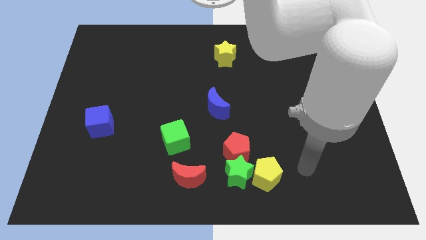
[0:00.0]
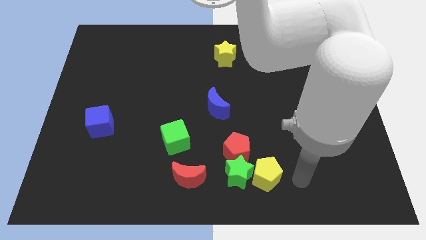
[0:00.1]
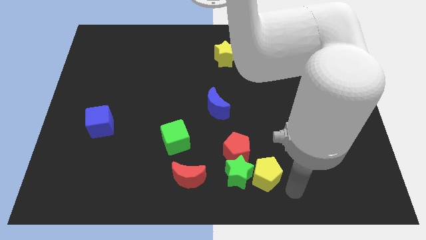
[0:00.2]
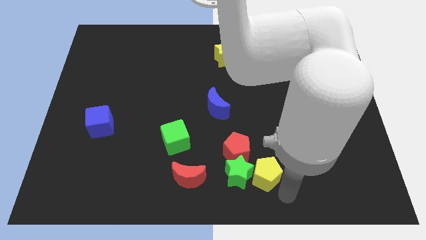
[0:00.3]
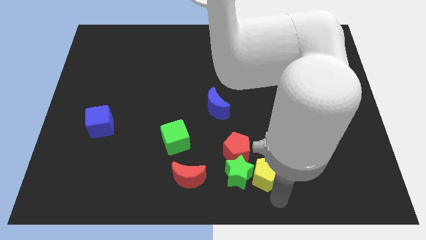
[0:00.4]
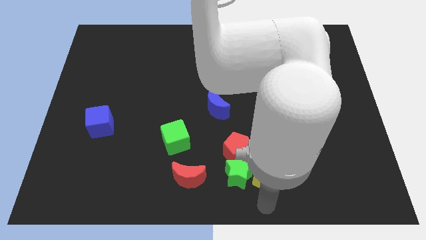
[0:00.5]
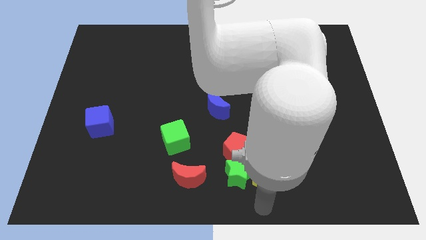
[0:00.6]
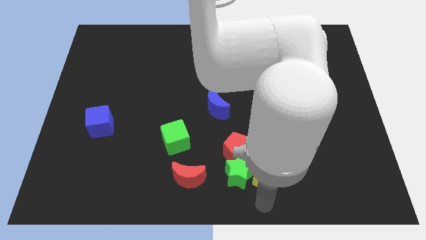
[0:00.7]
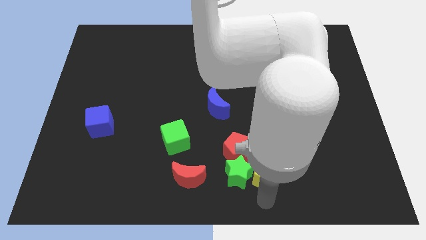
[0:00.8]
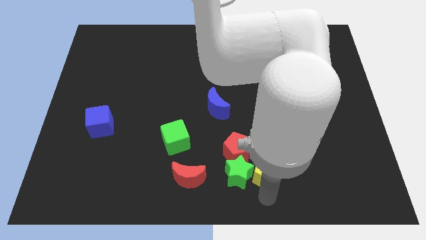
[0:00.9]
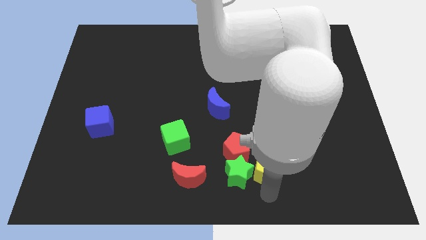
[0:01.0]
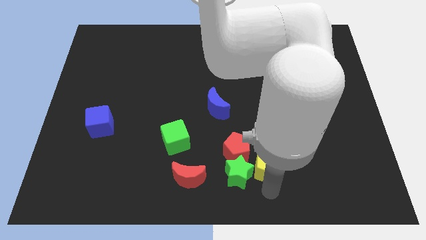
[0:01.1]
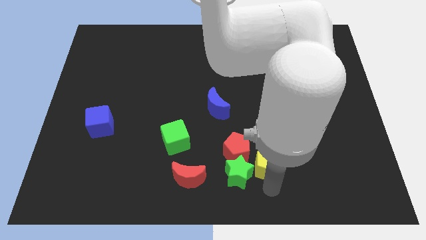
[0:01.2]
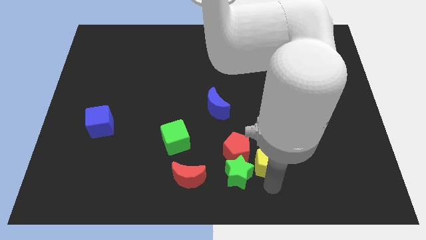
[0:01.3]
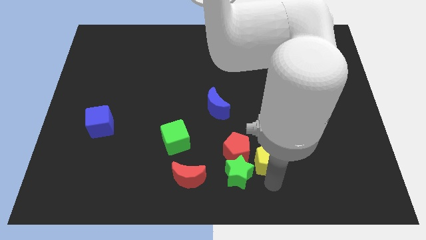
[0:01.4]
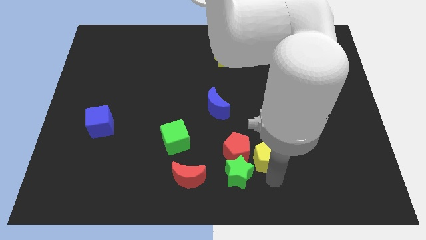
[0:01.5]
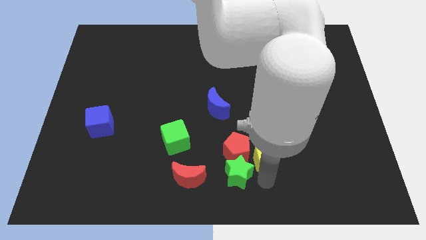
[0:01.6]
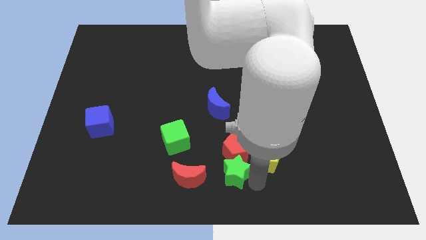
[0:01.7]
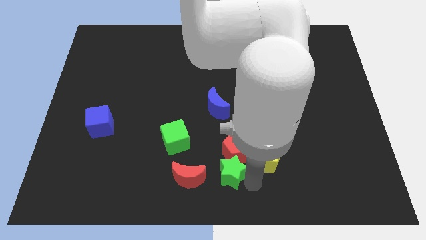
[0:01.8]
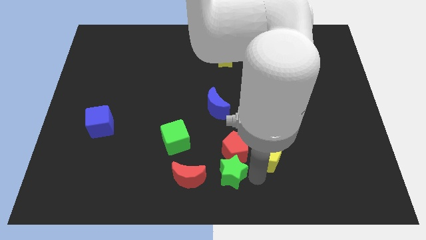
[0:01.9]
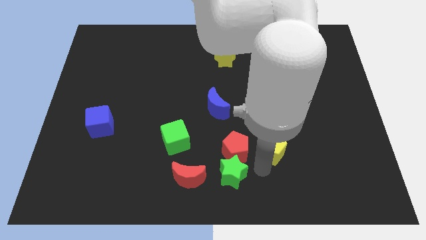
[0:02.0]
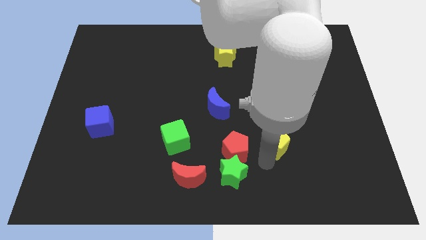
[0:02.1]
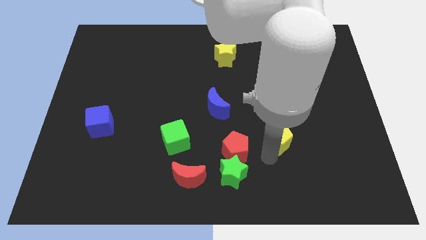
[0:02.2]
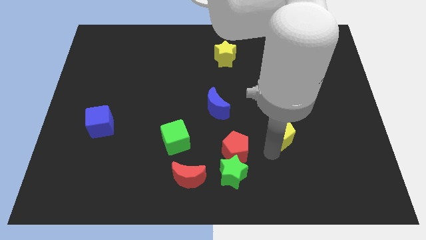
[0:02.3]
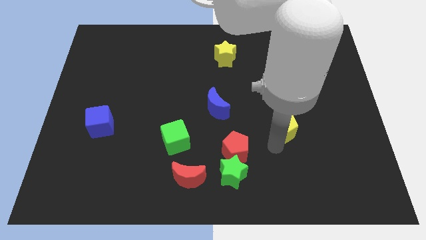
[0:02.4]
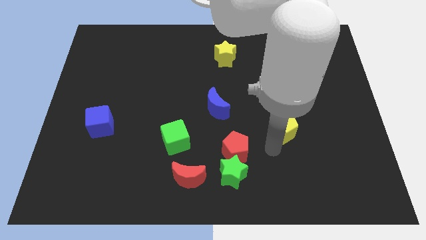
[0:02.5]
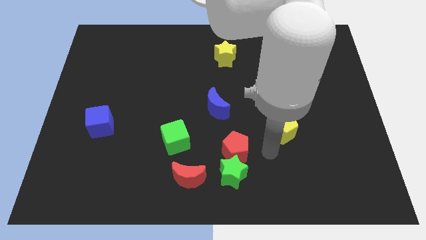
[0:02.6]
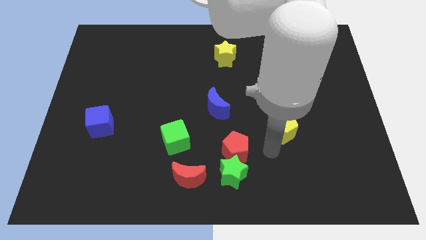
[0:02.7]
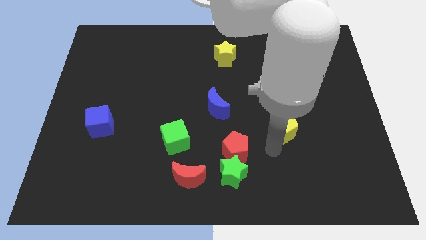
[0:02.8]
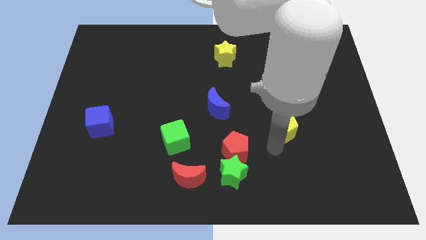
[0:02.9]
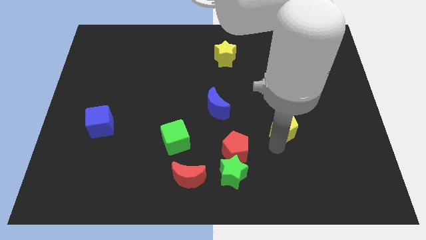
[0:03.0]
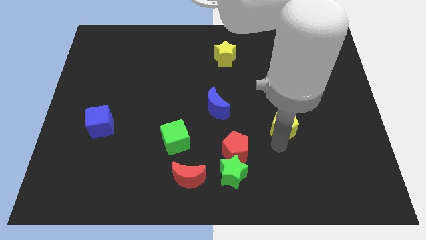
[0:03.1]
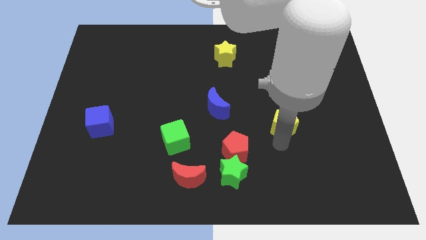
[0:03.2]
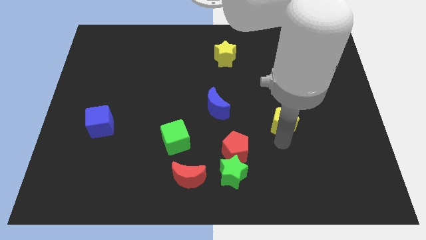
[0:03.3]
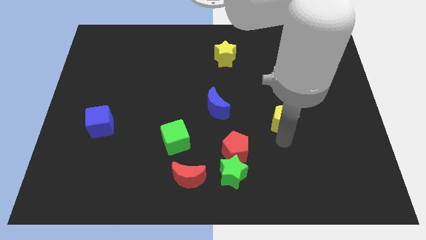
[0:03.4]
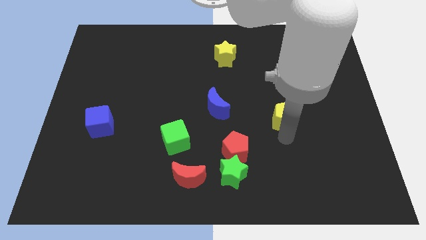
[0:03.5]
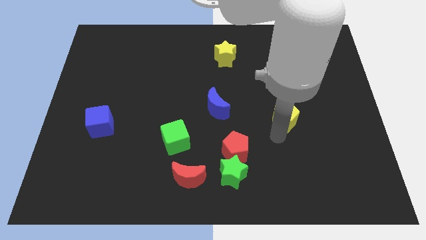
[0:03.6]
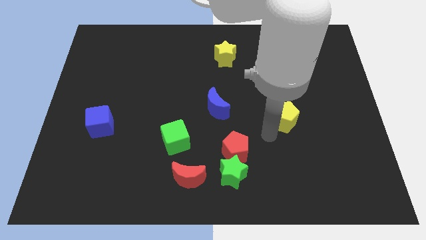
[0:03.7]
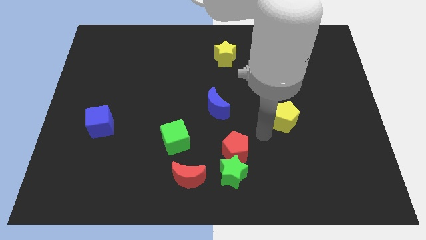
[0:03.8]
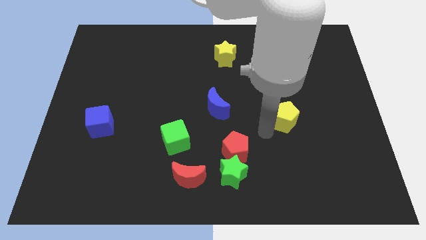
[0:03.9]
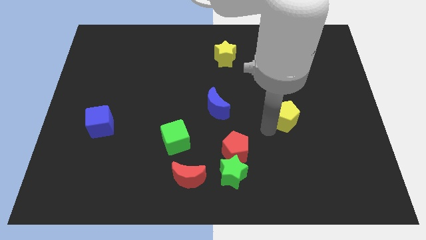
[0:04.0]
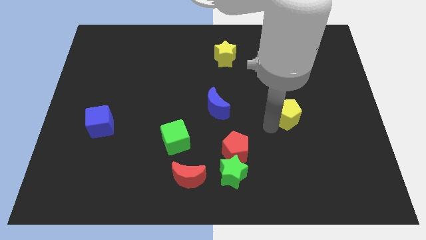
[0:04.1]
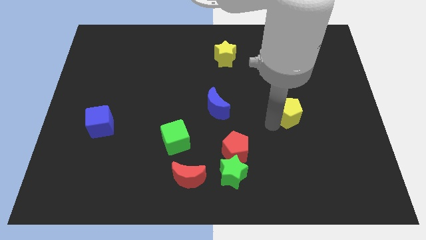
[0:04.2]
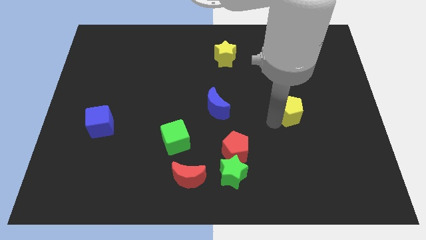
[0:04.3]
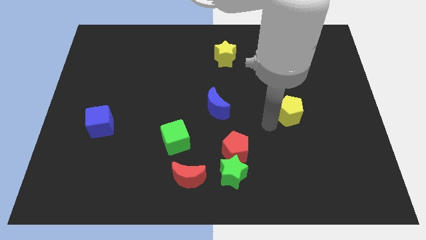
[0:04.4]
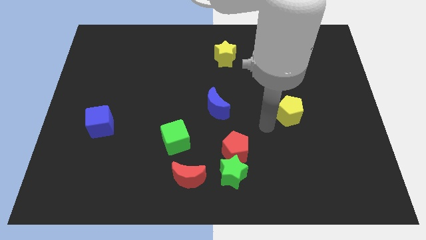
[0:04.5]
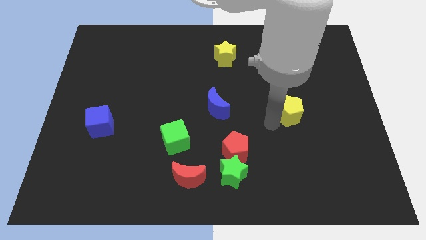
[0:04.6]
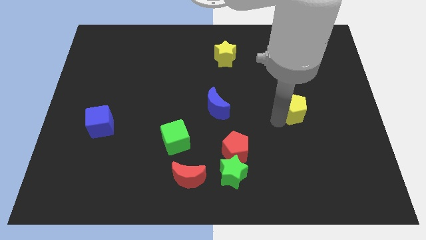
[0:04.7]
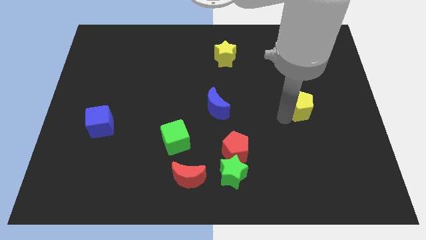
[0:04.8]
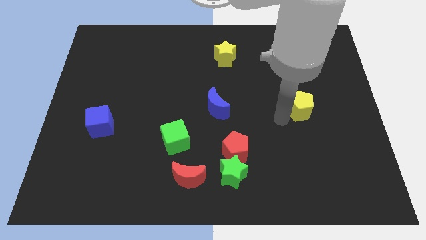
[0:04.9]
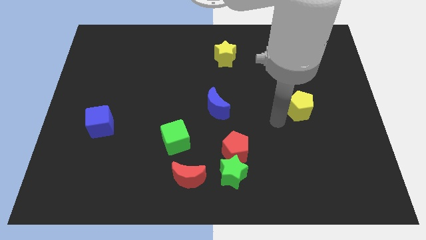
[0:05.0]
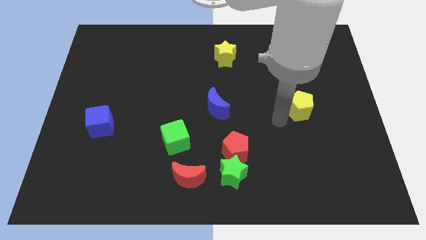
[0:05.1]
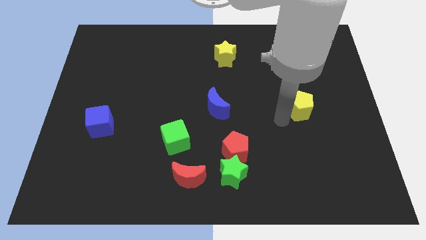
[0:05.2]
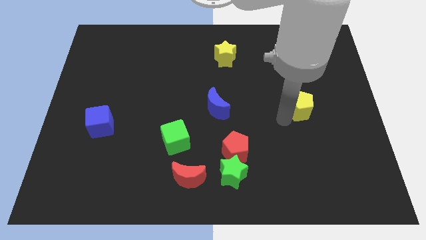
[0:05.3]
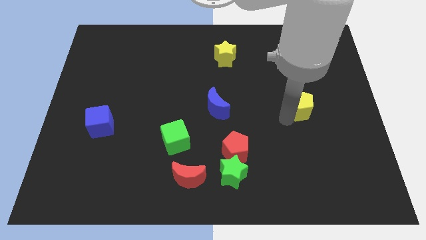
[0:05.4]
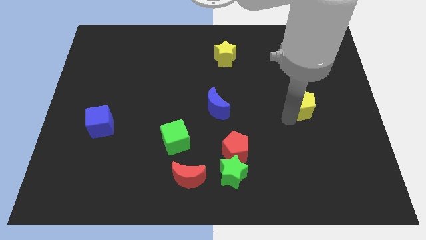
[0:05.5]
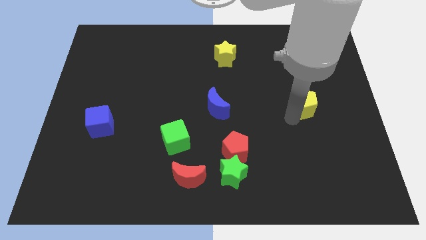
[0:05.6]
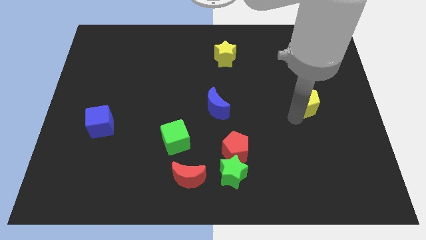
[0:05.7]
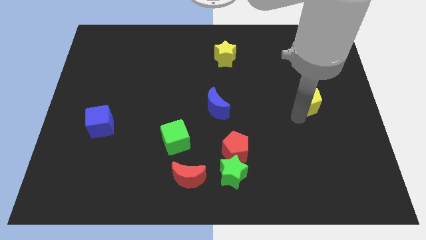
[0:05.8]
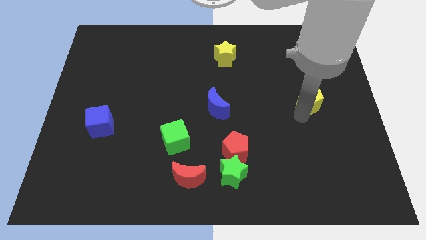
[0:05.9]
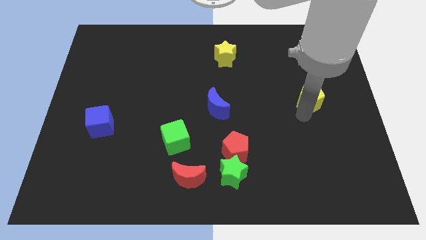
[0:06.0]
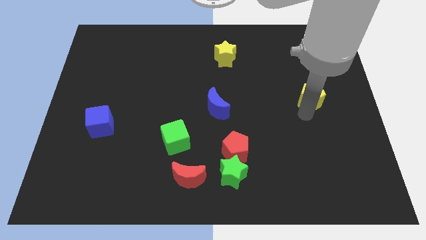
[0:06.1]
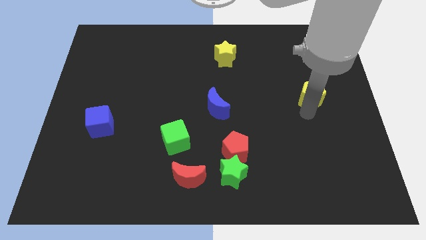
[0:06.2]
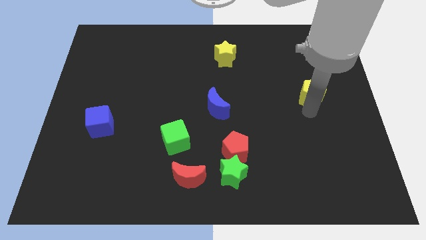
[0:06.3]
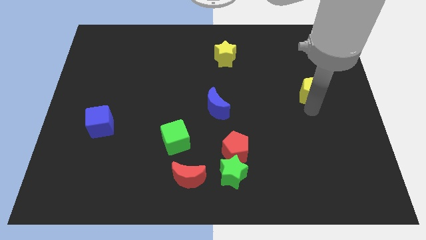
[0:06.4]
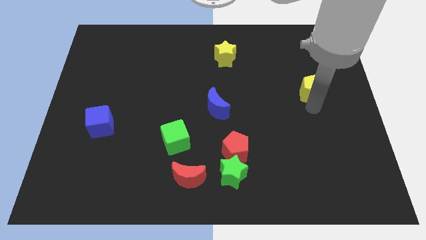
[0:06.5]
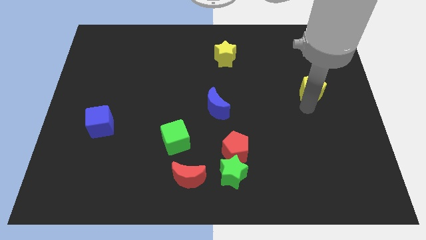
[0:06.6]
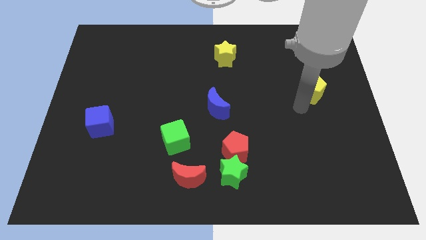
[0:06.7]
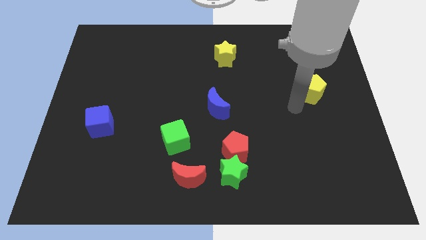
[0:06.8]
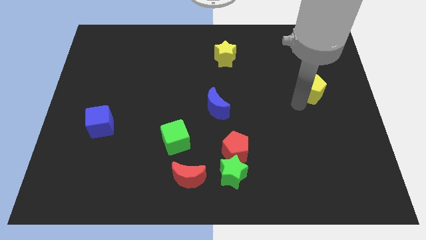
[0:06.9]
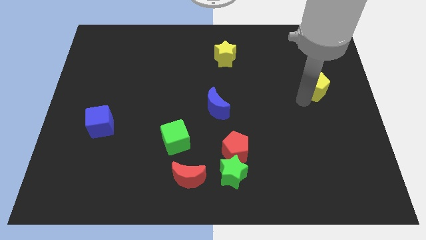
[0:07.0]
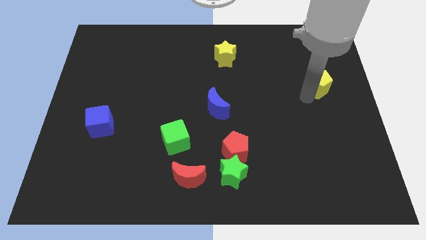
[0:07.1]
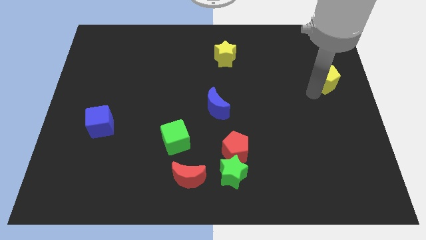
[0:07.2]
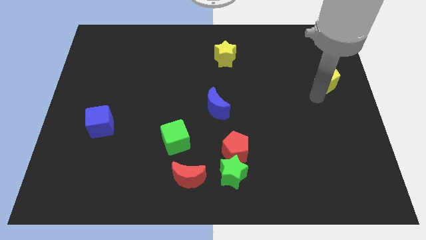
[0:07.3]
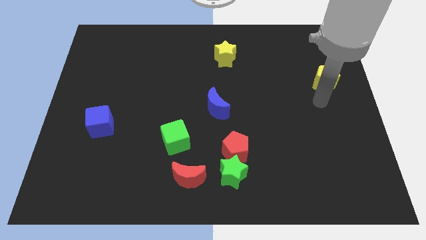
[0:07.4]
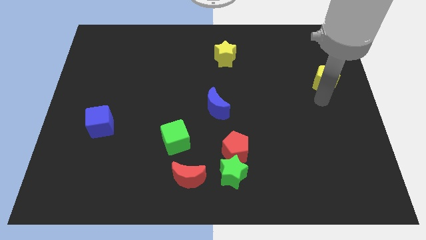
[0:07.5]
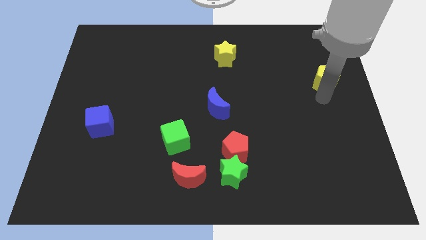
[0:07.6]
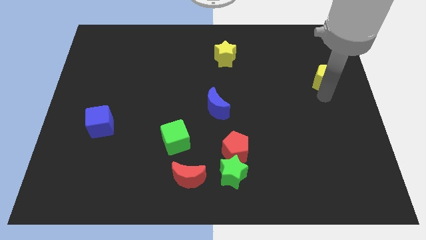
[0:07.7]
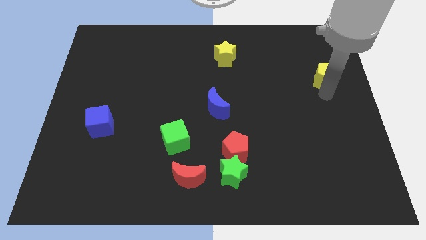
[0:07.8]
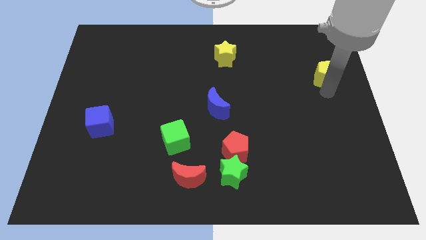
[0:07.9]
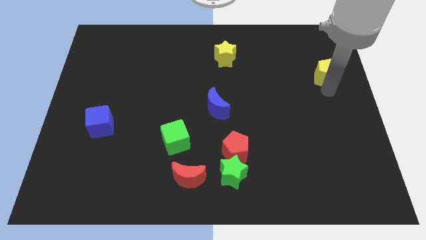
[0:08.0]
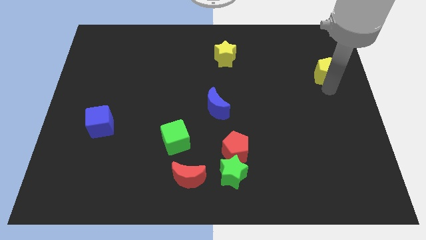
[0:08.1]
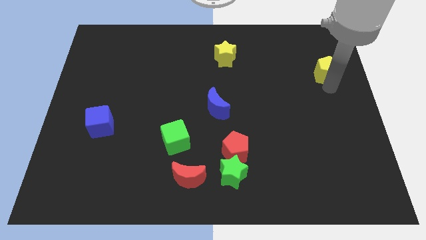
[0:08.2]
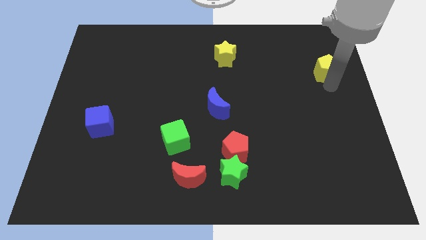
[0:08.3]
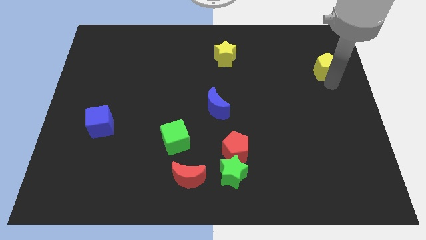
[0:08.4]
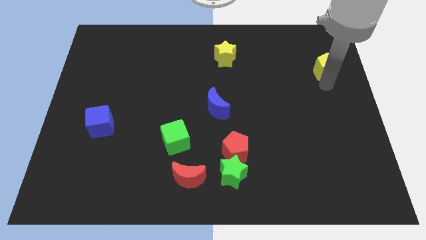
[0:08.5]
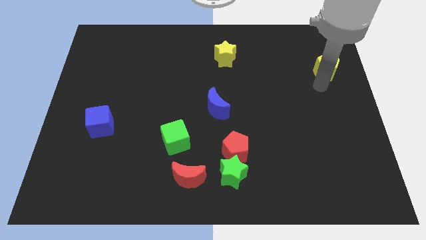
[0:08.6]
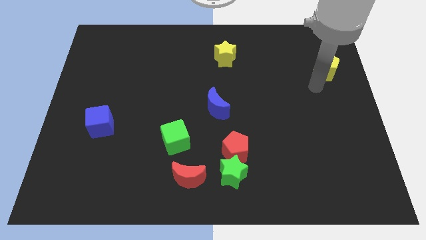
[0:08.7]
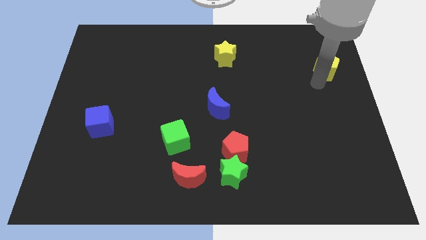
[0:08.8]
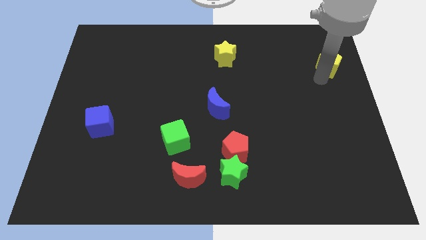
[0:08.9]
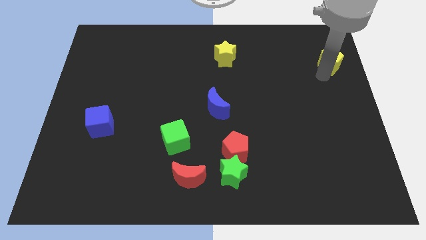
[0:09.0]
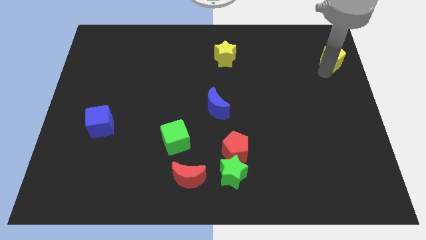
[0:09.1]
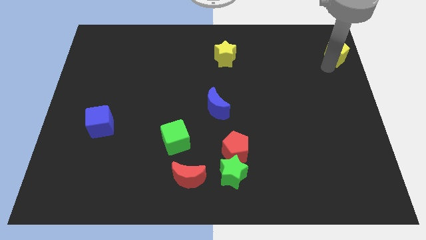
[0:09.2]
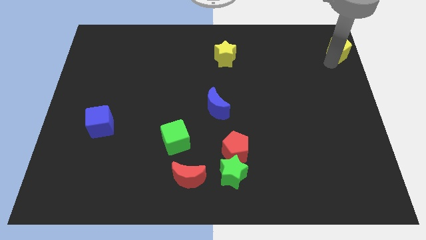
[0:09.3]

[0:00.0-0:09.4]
push the yellow pentagon to the top right corner
